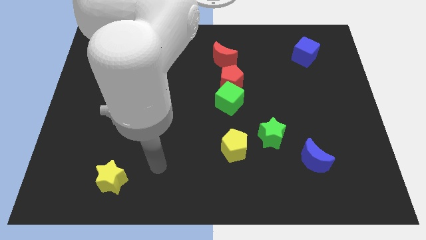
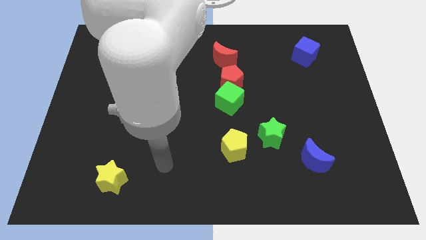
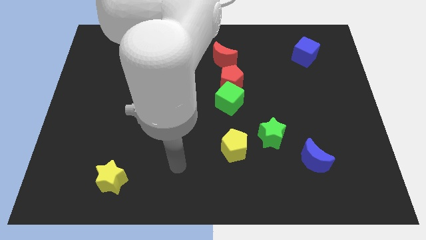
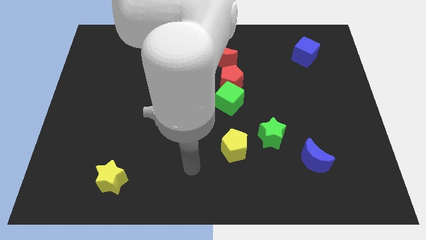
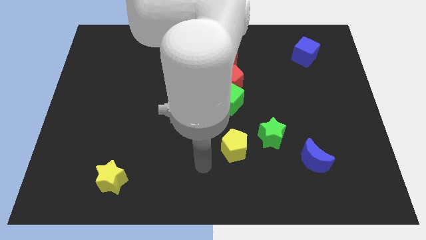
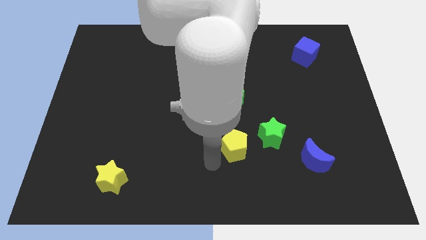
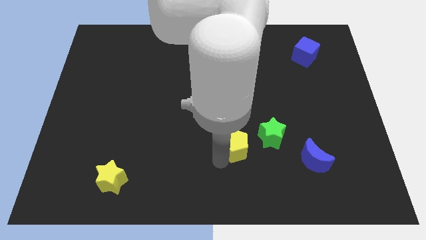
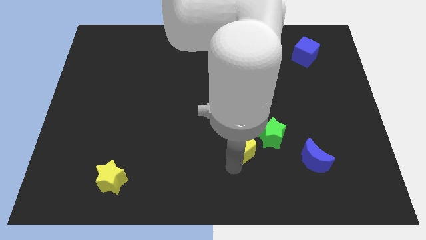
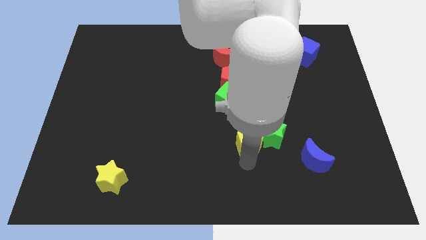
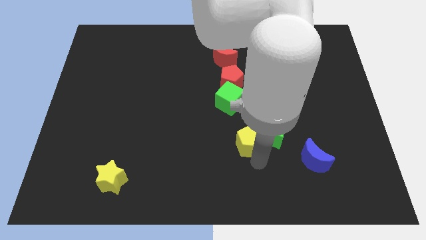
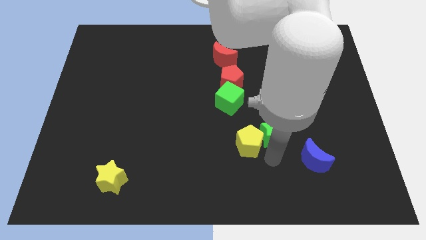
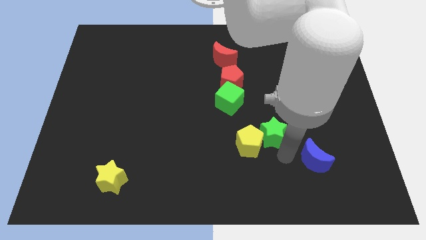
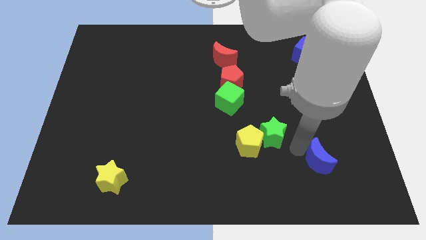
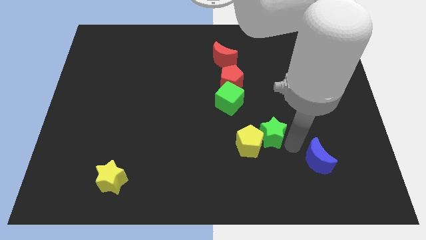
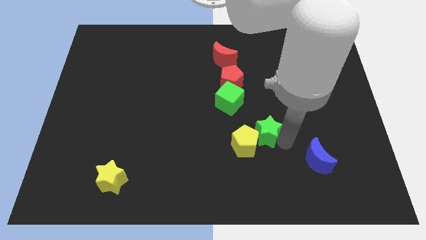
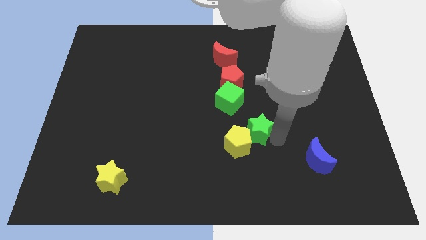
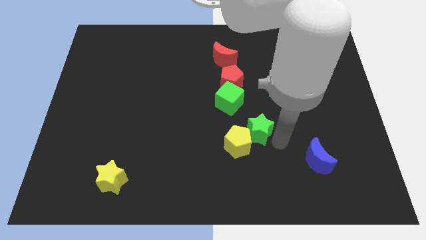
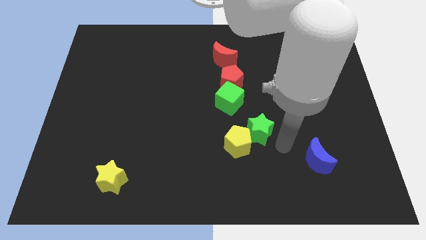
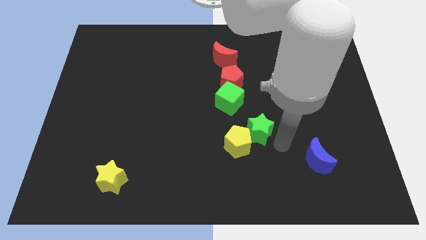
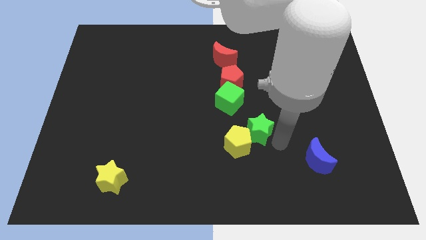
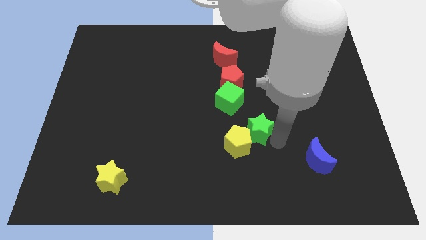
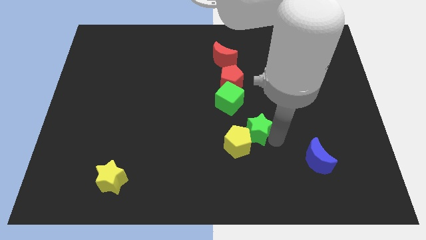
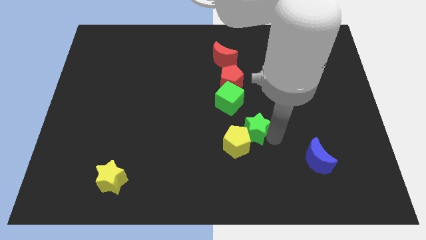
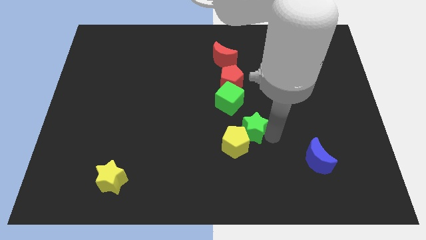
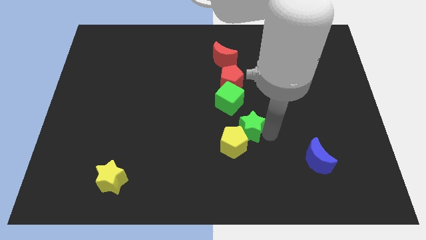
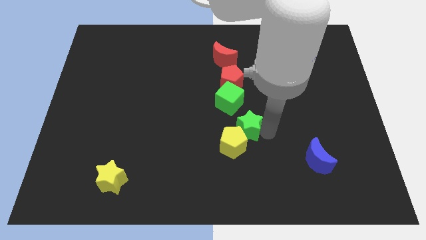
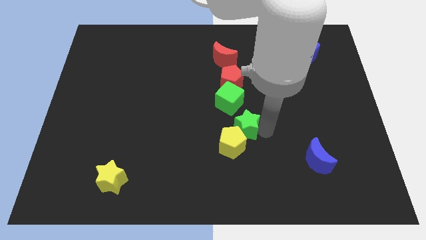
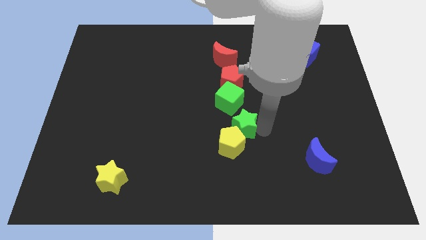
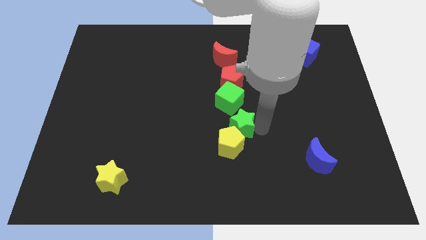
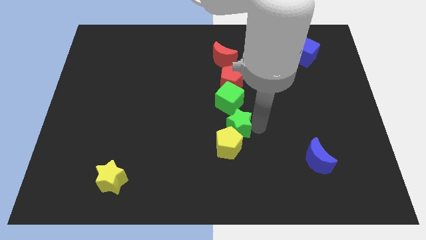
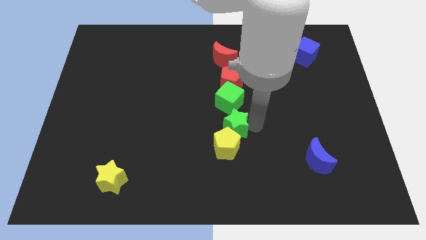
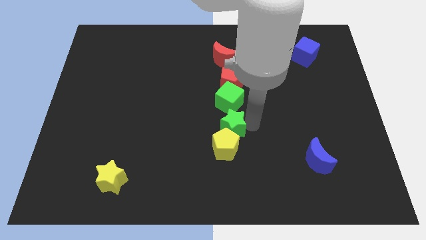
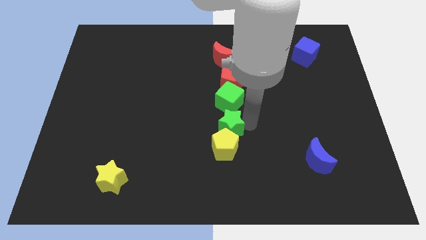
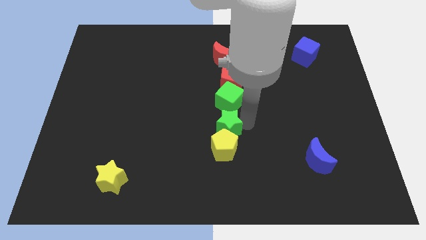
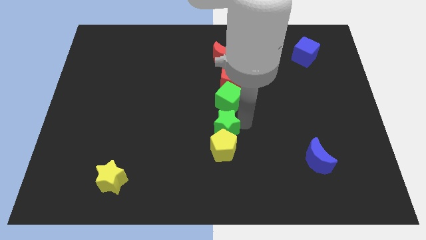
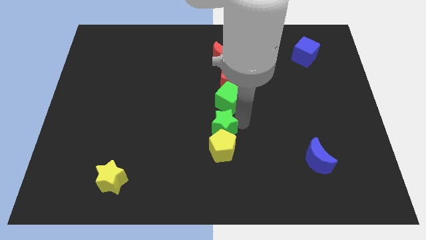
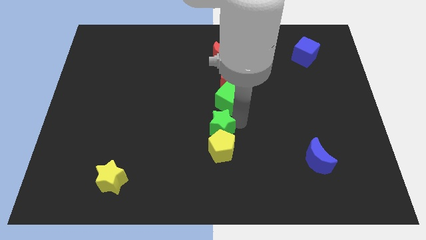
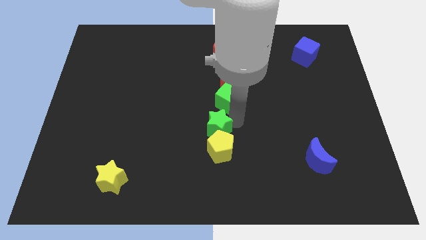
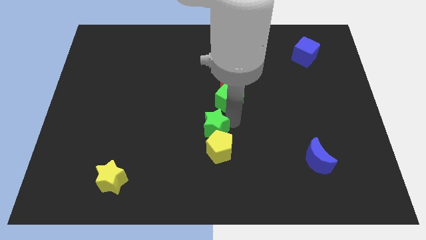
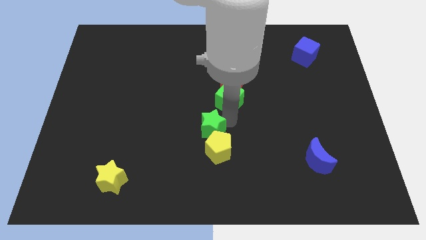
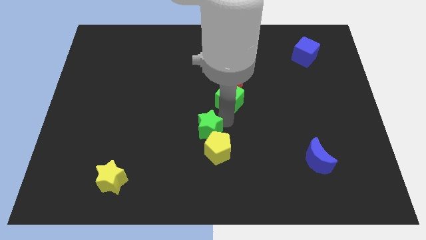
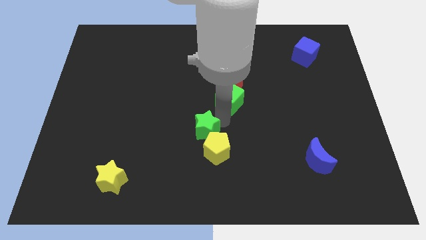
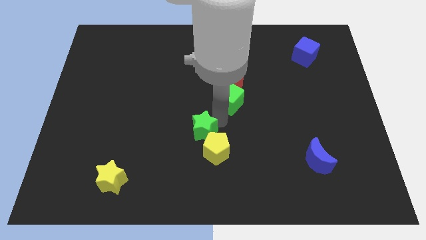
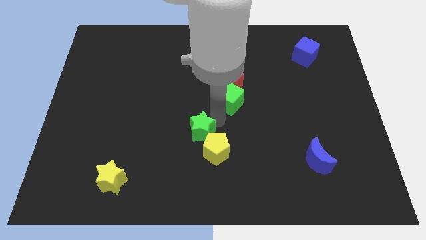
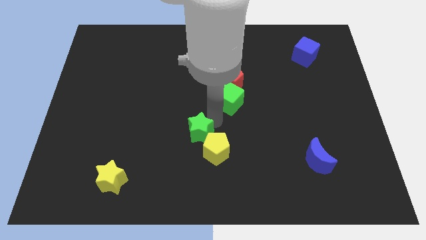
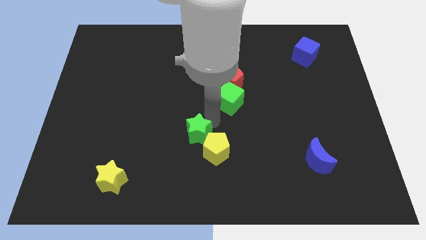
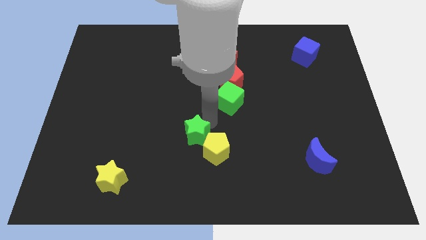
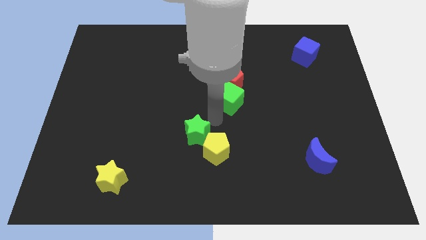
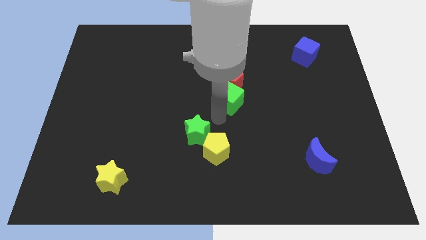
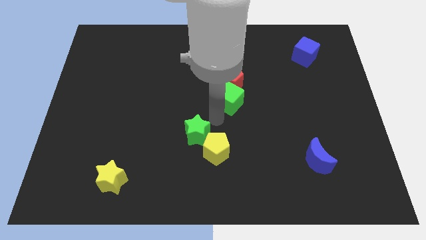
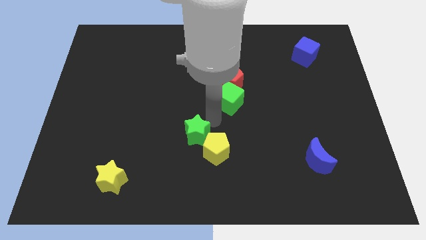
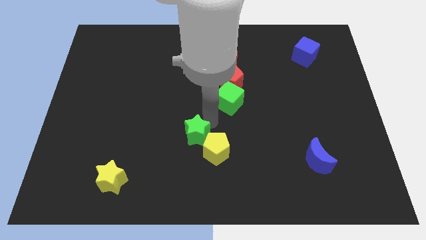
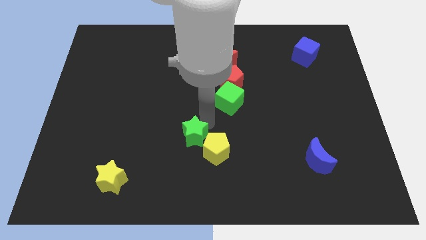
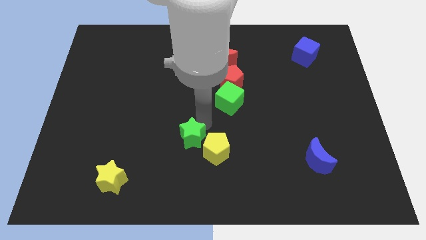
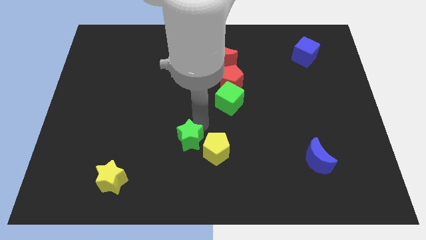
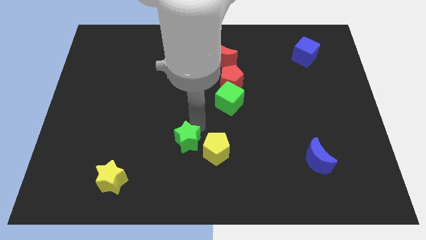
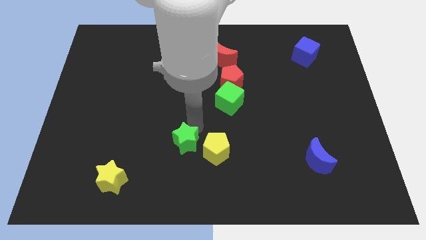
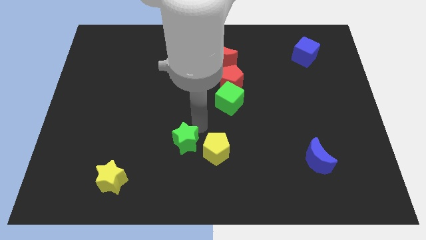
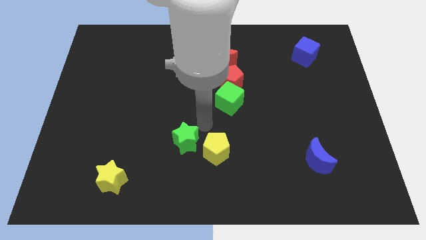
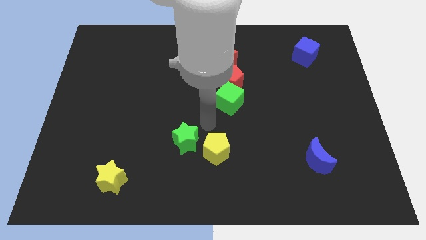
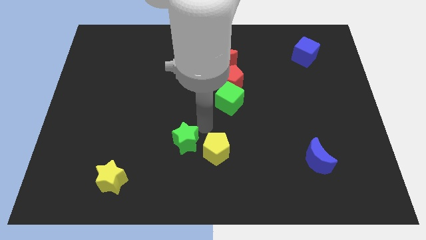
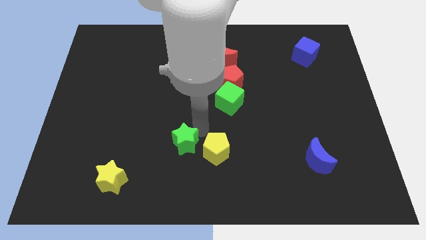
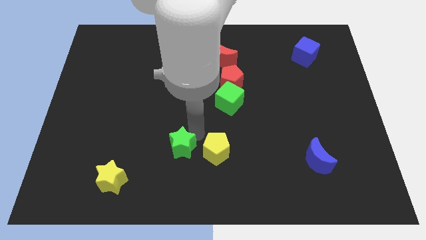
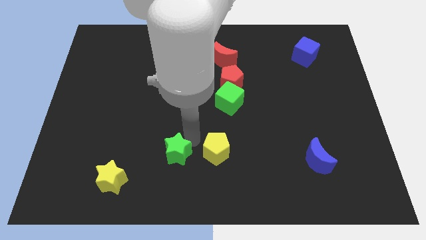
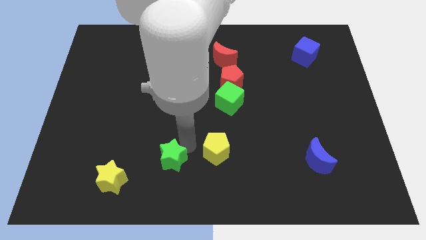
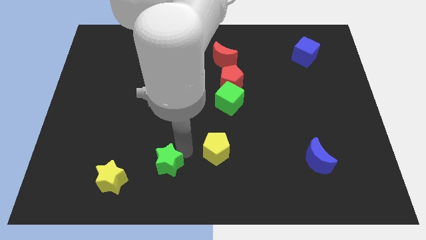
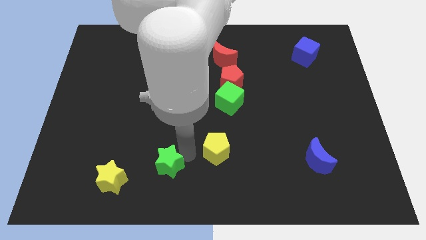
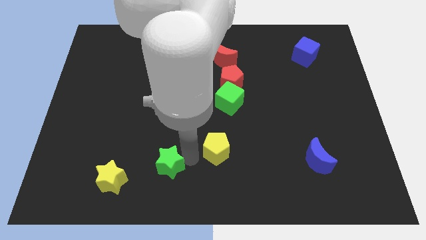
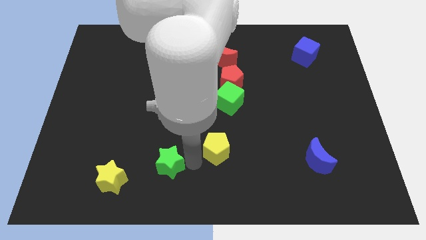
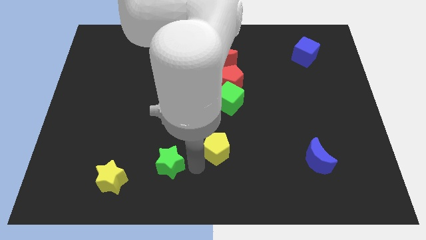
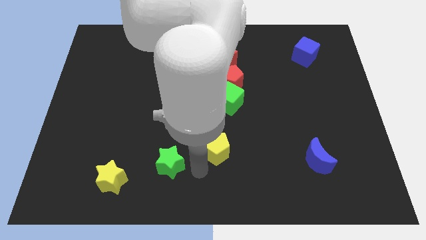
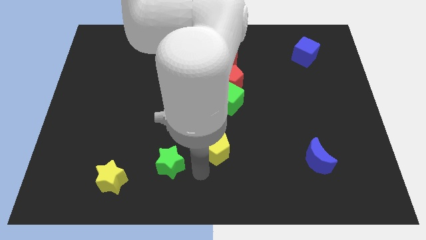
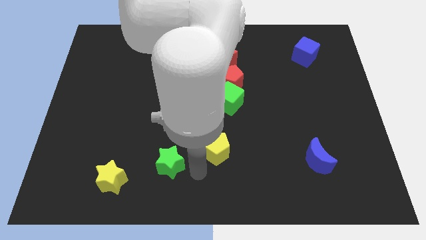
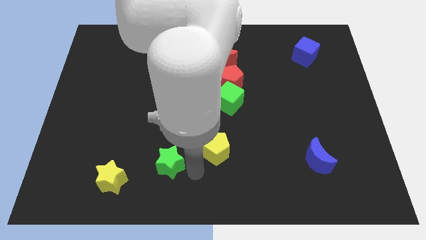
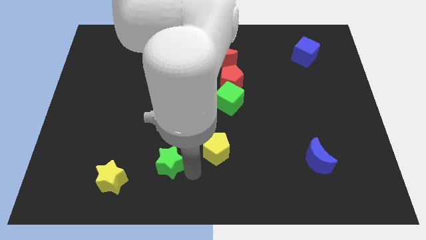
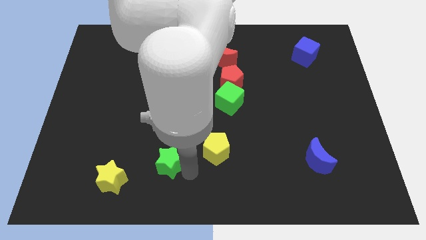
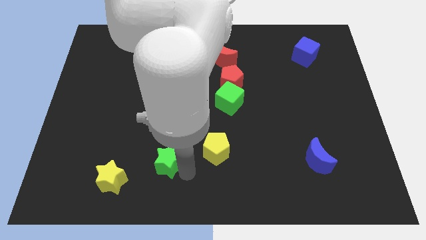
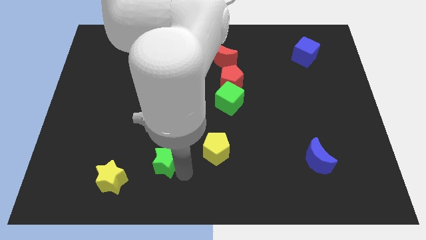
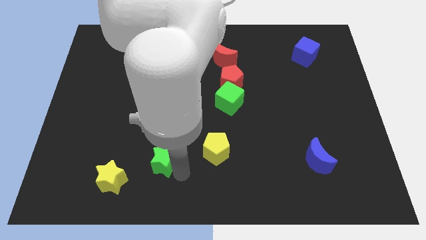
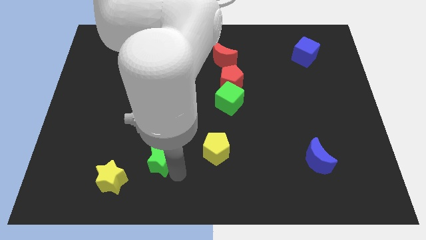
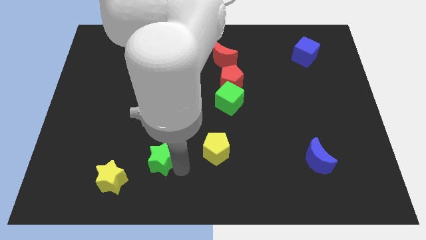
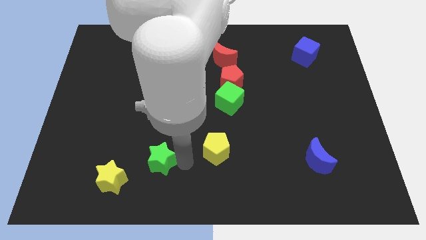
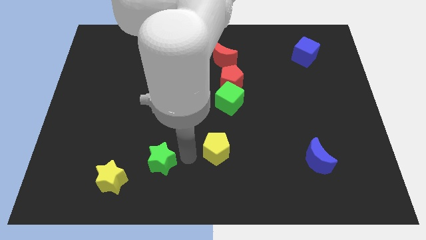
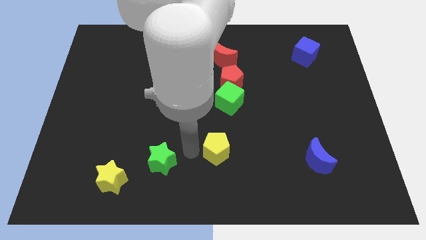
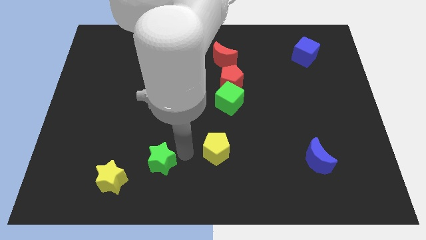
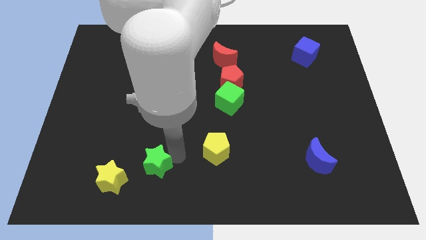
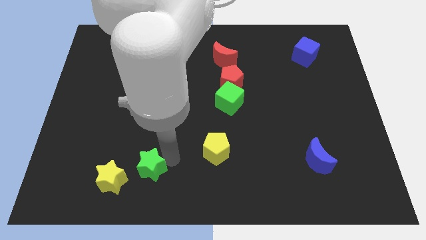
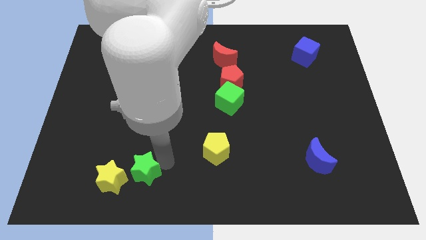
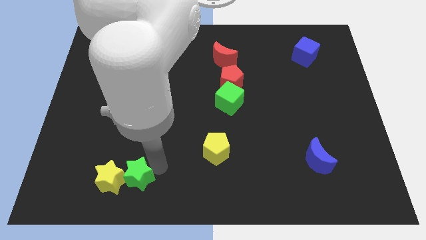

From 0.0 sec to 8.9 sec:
put the green star towards the yellow star
